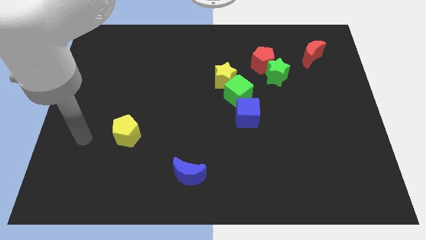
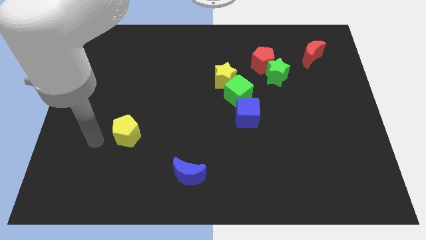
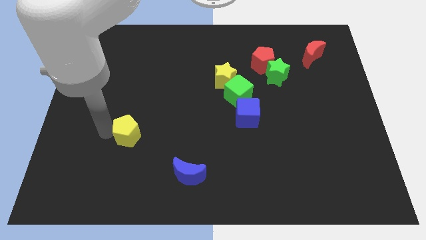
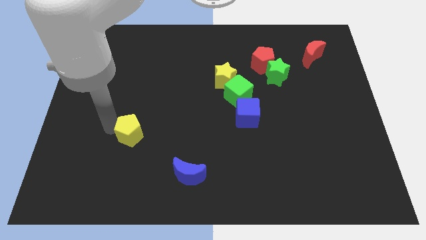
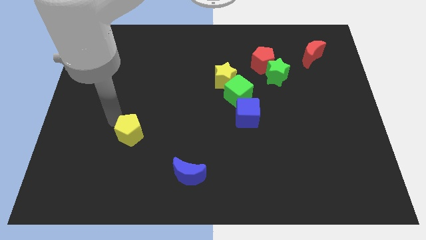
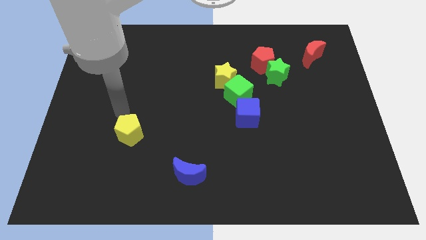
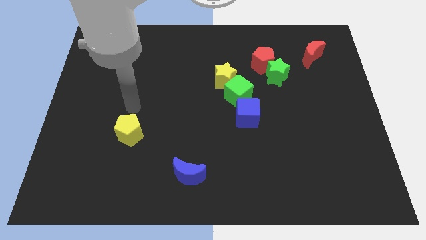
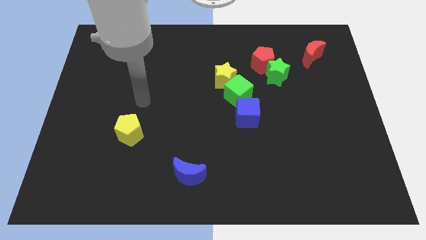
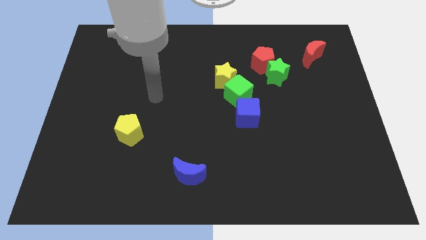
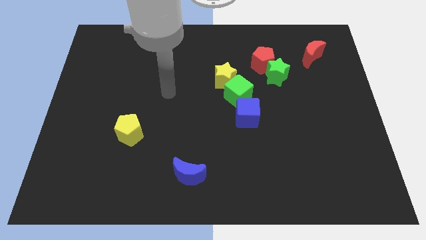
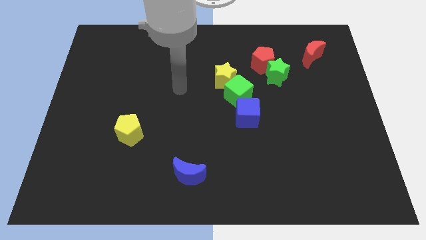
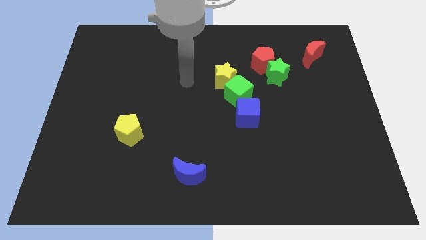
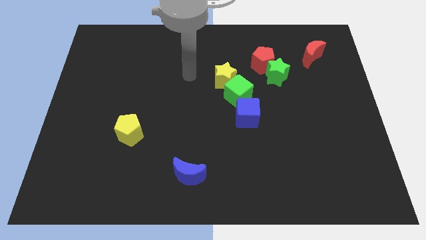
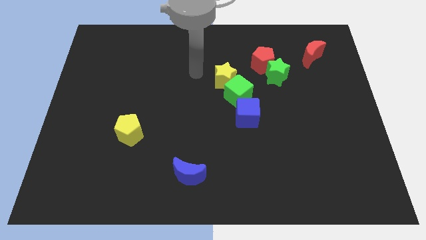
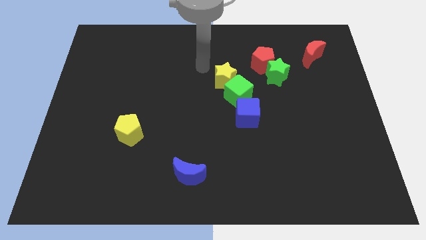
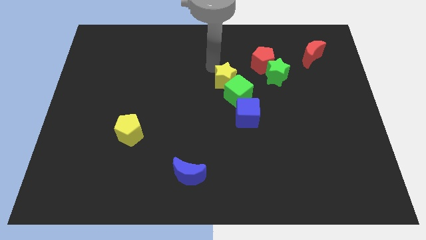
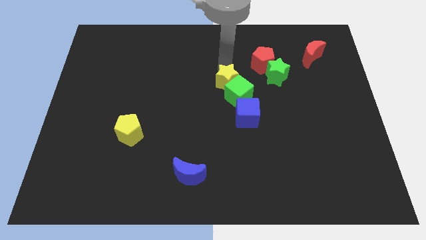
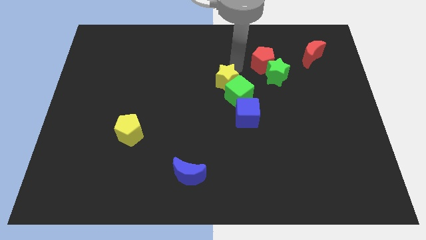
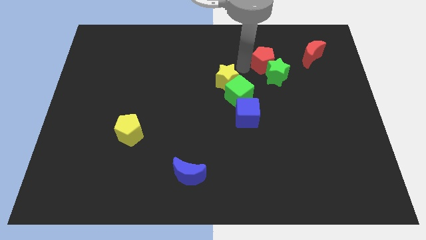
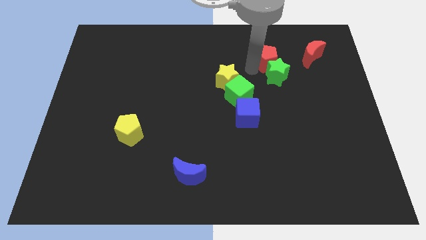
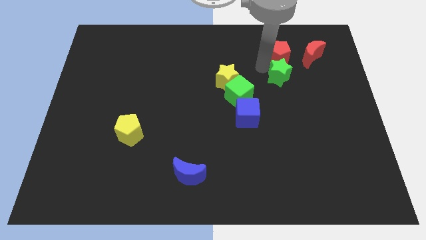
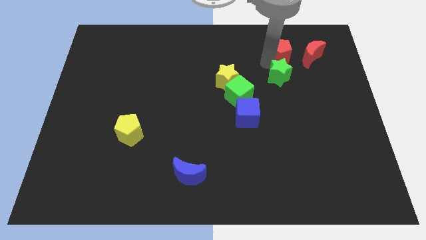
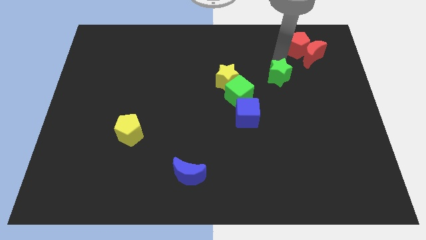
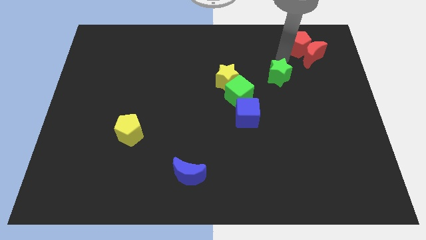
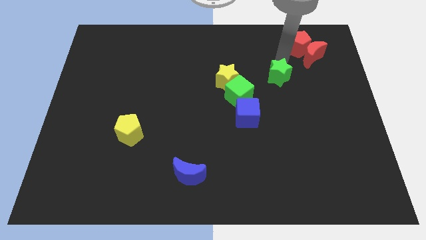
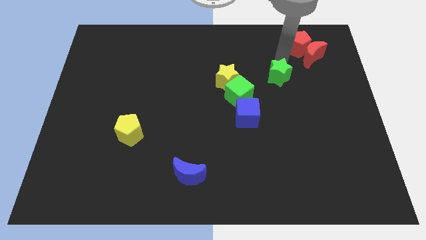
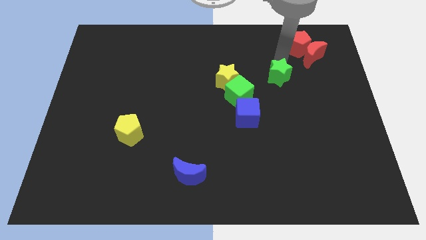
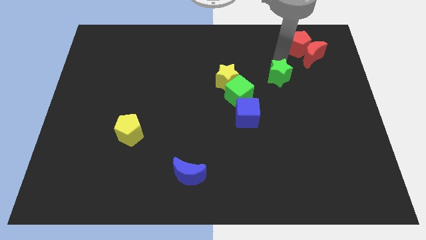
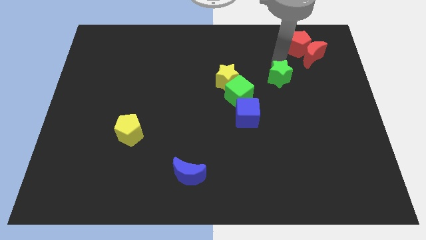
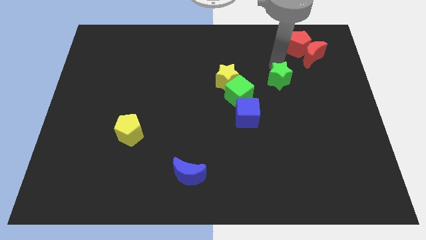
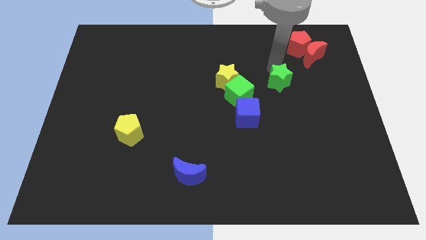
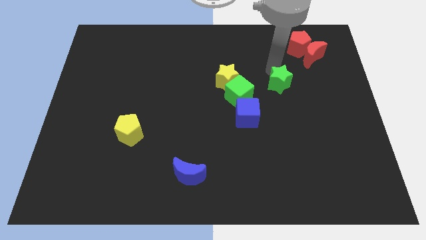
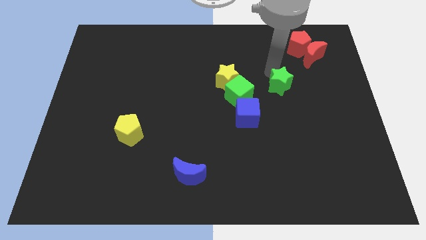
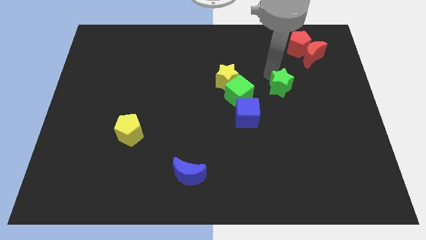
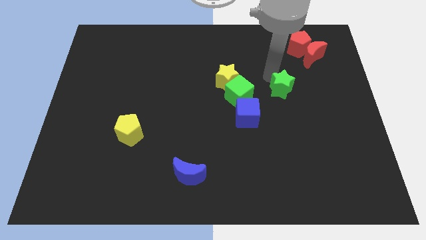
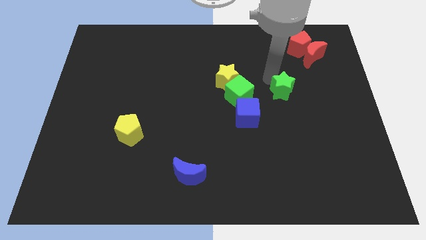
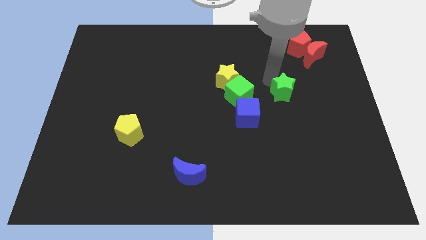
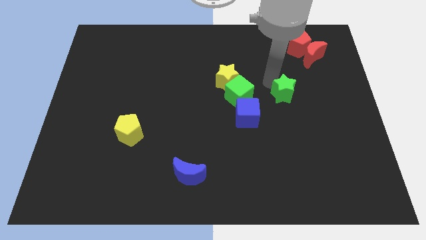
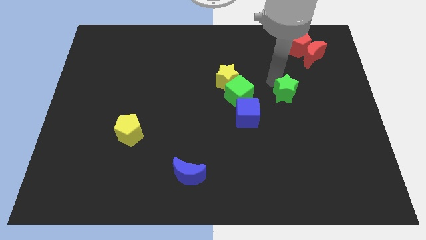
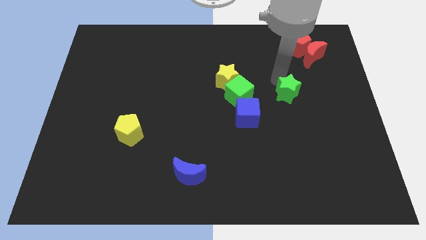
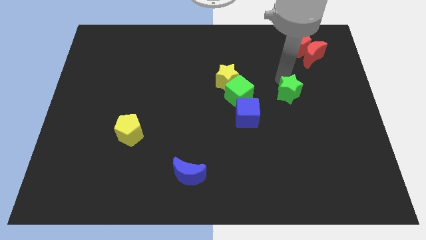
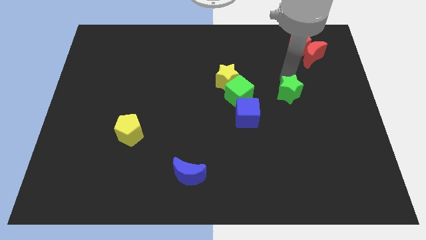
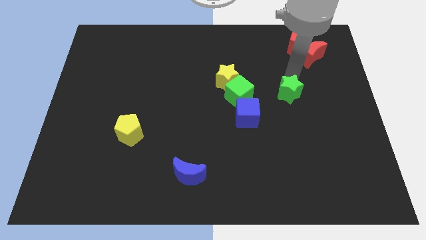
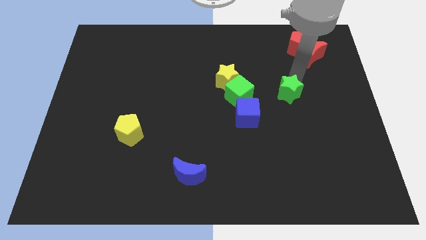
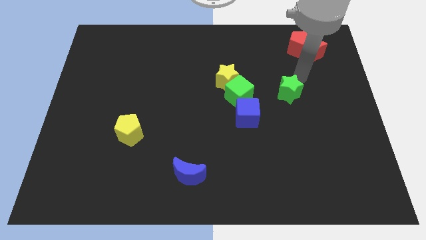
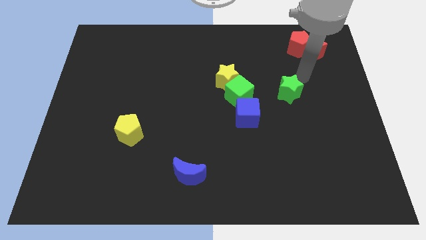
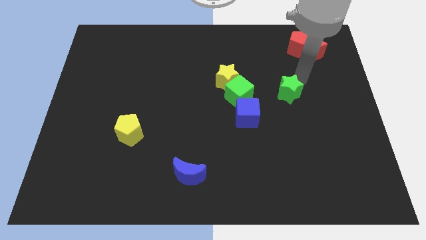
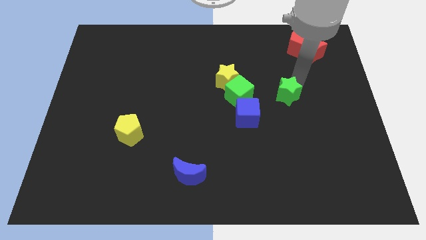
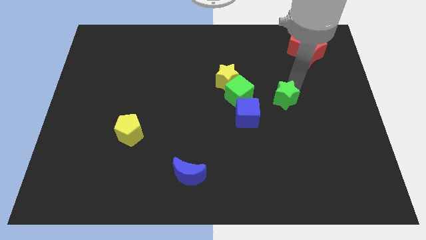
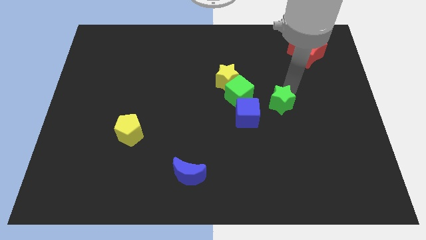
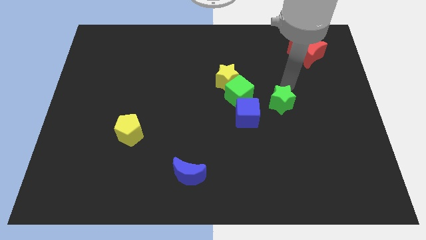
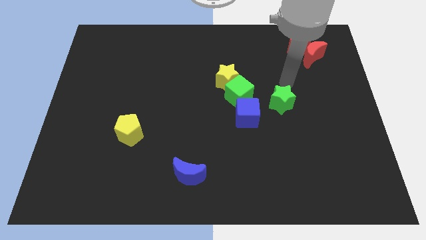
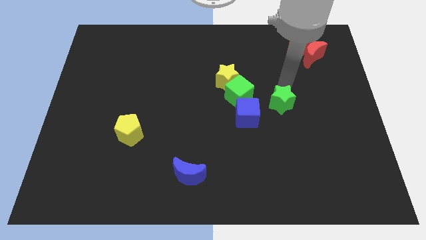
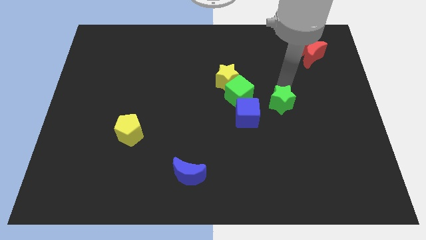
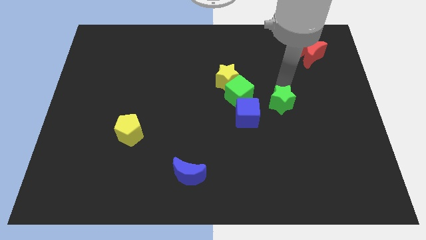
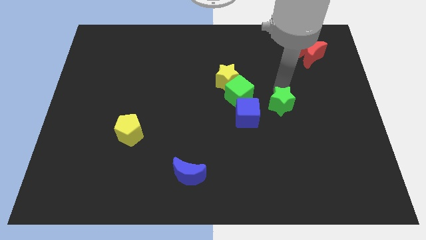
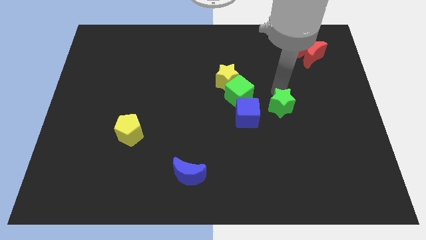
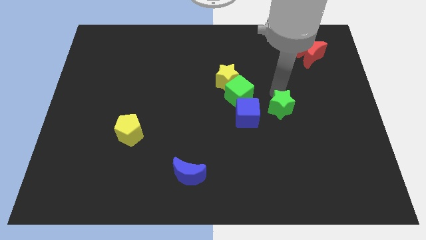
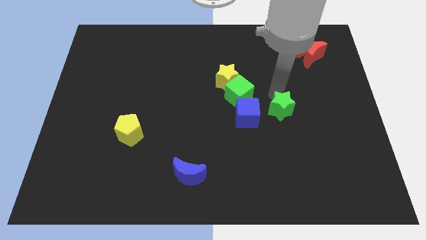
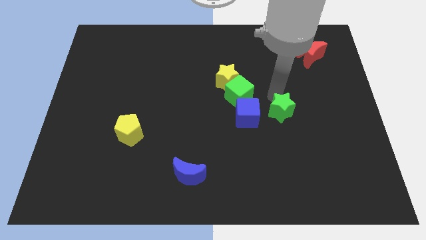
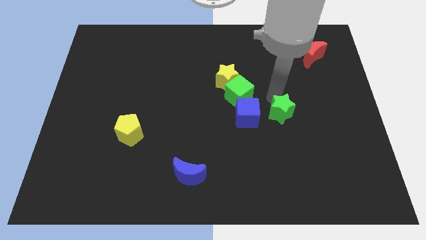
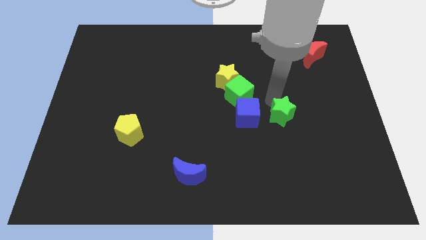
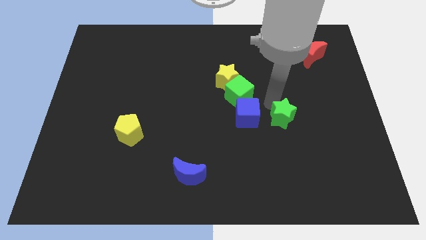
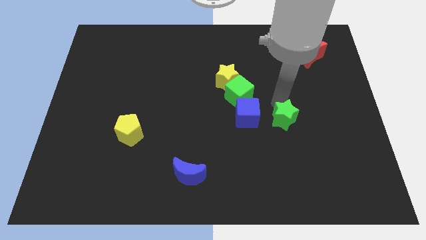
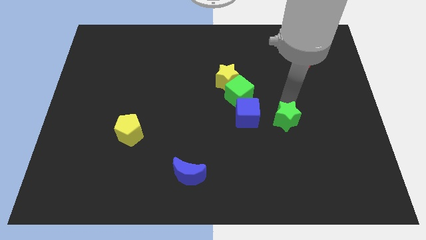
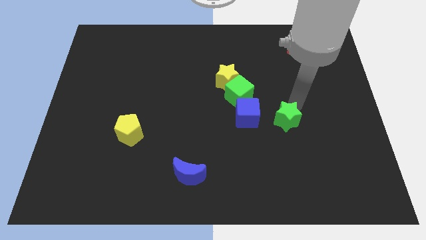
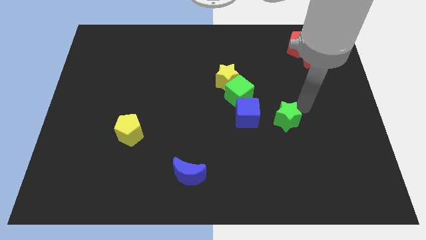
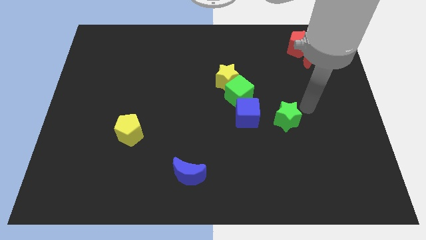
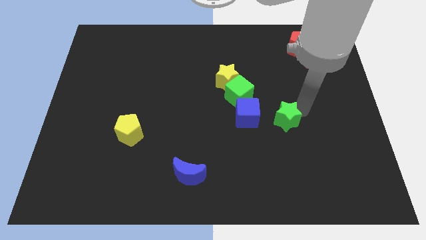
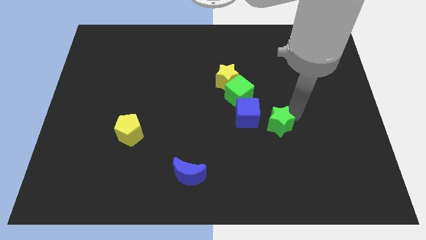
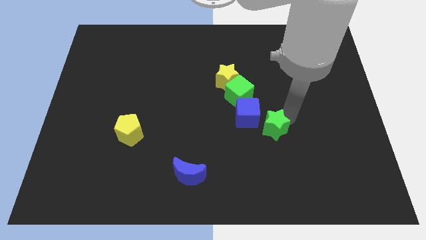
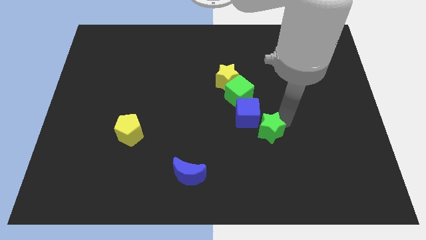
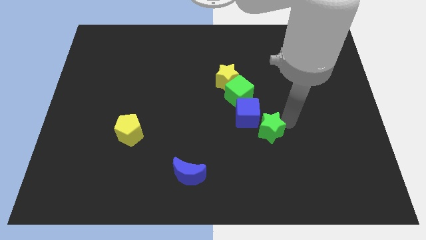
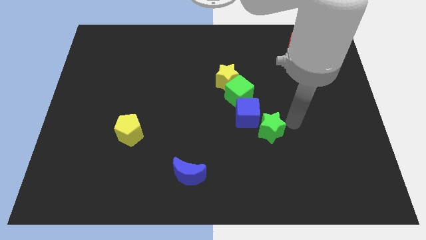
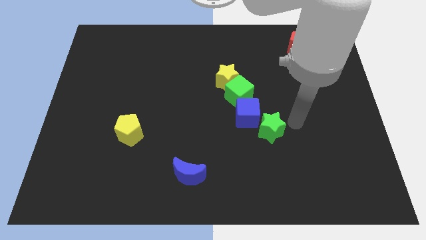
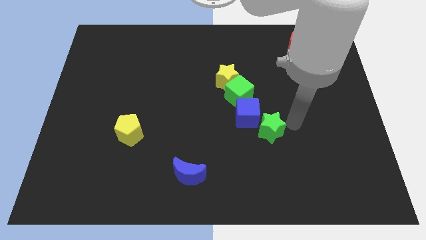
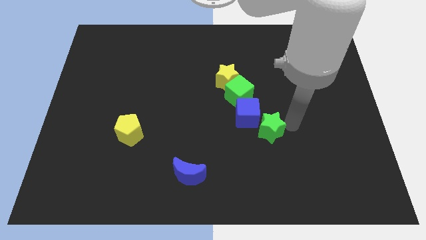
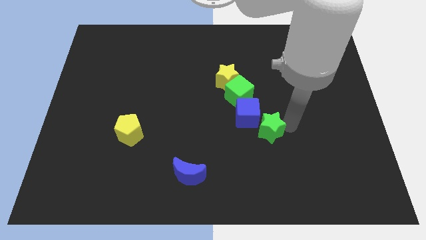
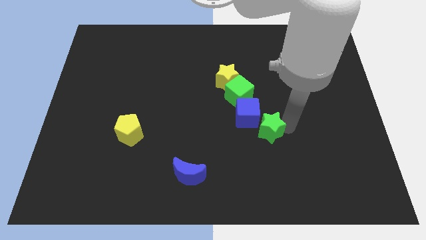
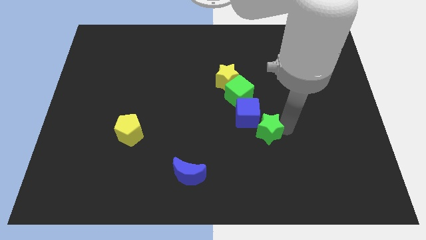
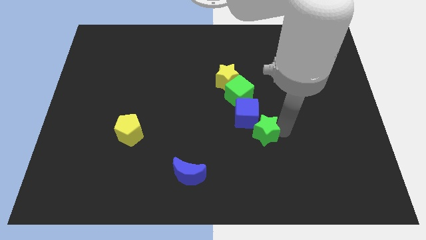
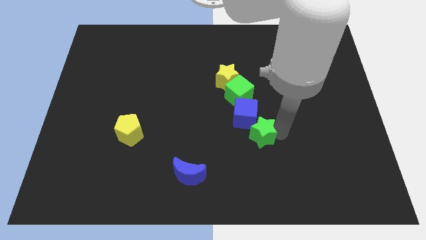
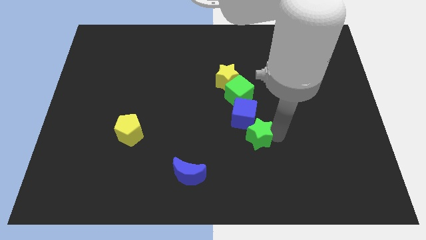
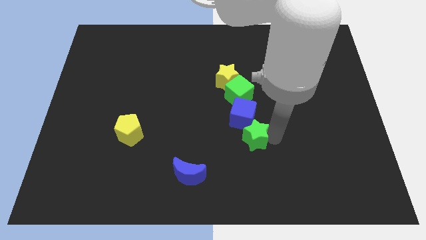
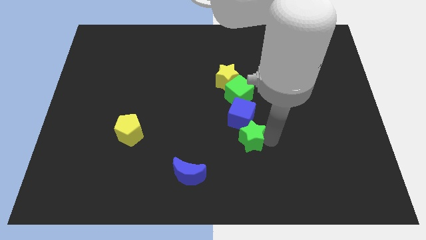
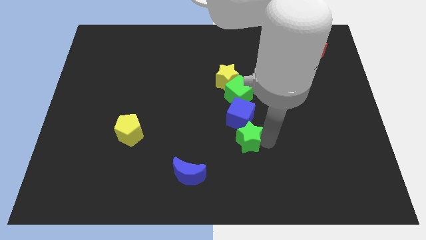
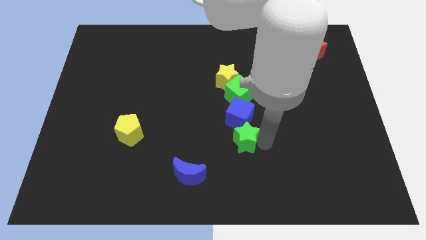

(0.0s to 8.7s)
slide the green star to the bottom left side of the blue cube
